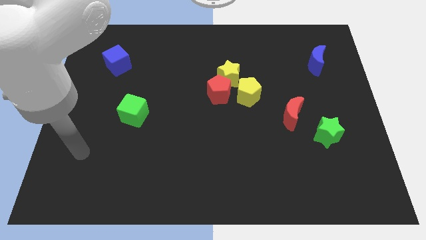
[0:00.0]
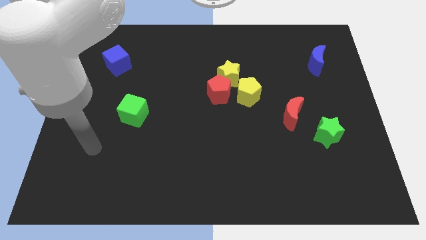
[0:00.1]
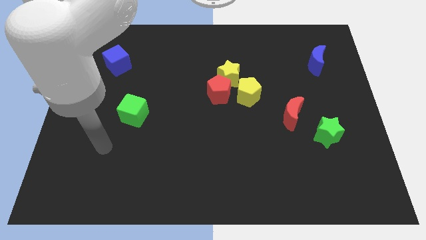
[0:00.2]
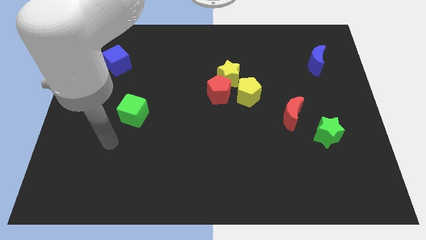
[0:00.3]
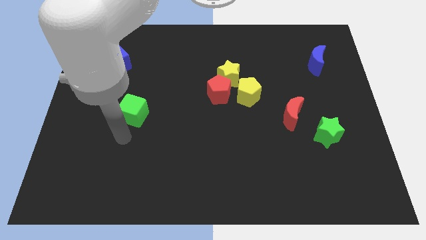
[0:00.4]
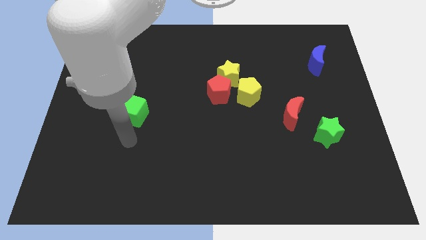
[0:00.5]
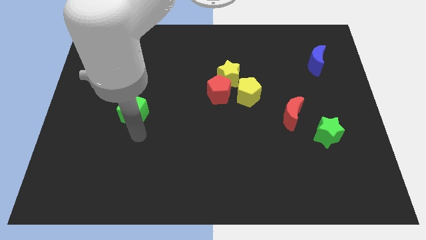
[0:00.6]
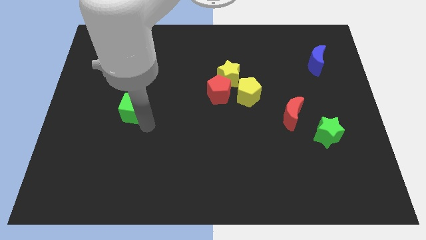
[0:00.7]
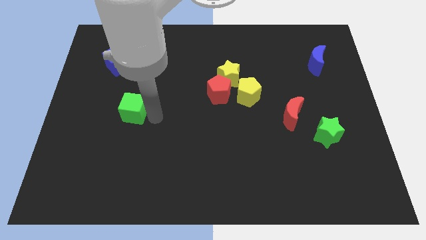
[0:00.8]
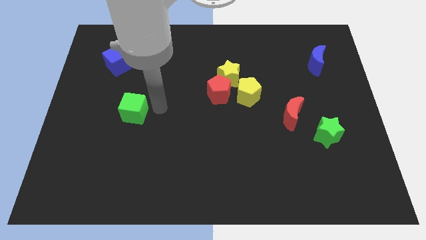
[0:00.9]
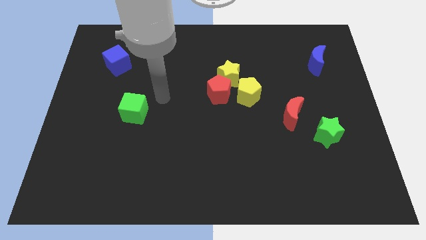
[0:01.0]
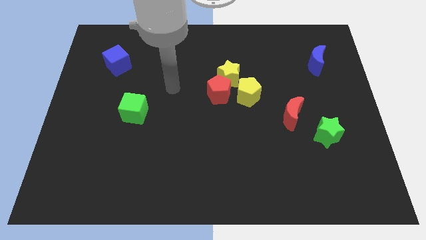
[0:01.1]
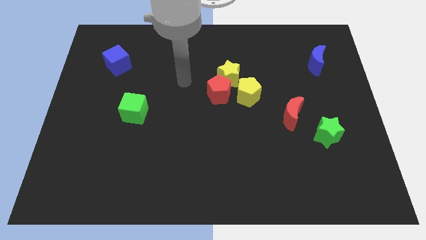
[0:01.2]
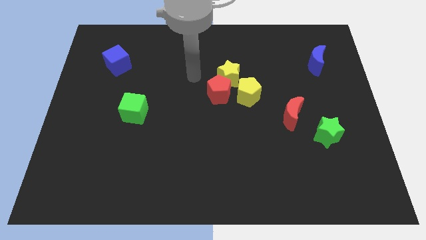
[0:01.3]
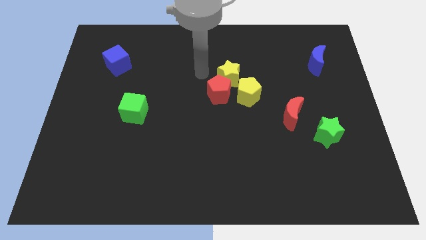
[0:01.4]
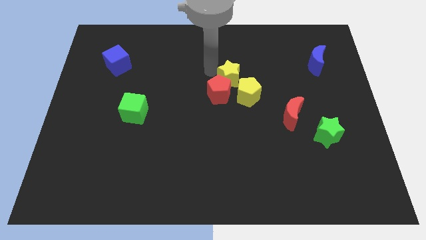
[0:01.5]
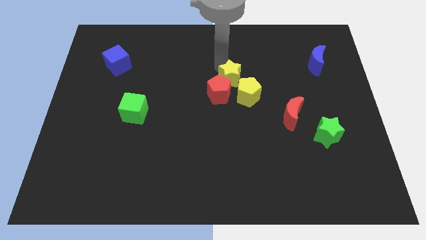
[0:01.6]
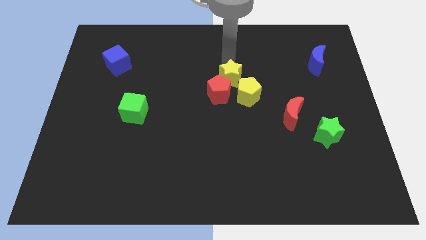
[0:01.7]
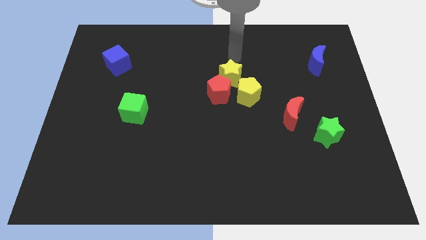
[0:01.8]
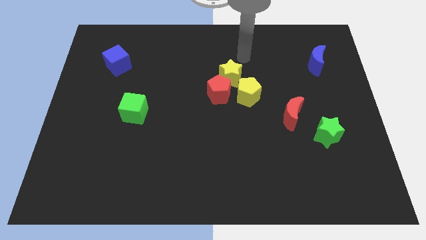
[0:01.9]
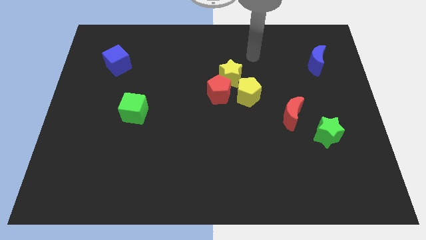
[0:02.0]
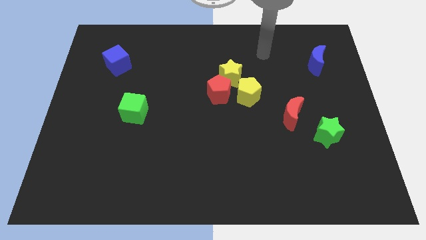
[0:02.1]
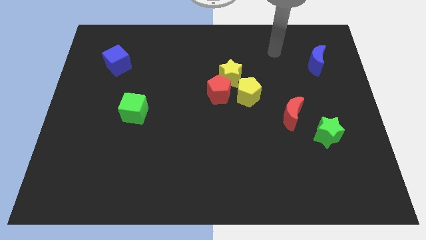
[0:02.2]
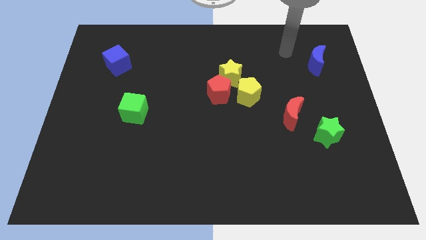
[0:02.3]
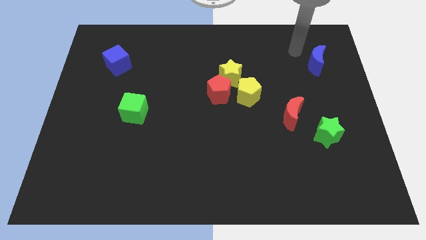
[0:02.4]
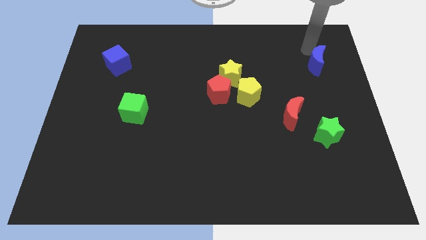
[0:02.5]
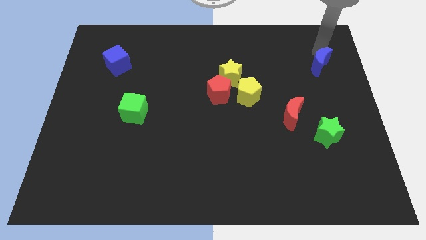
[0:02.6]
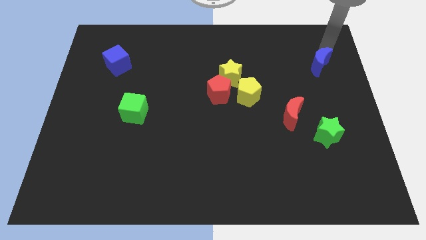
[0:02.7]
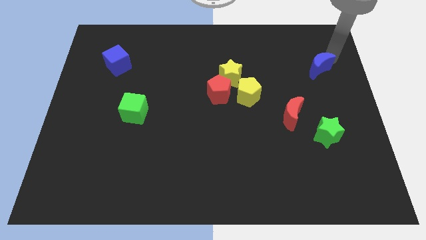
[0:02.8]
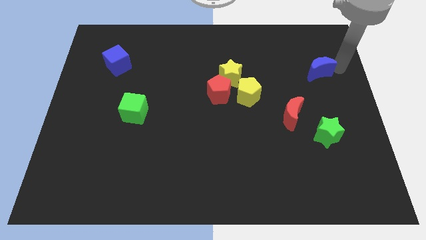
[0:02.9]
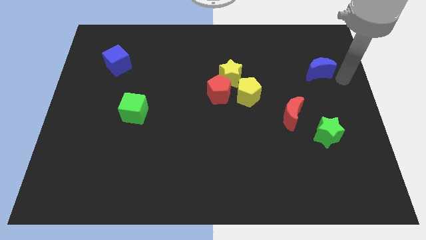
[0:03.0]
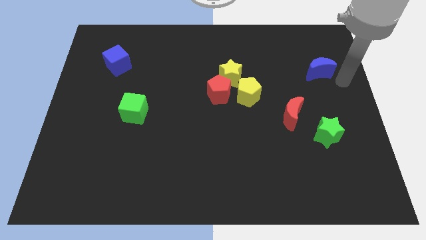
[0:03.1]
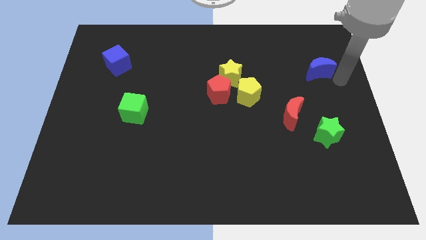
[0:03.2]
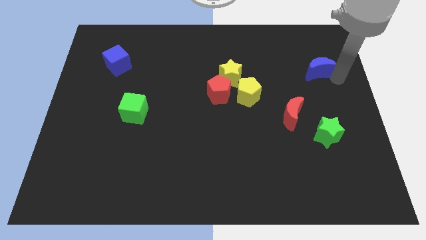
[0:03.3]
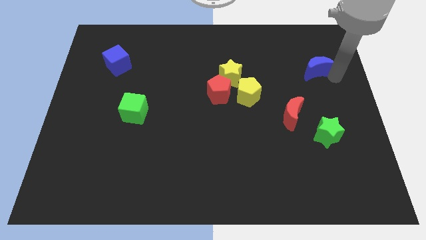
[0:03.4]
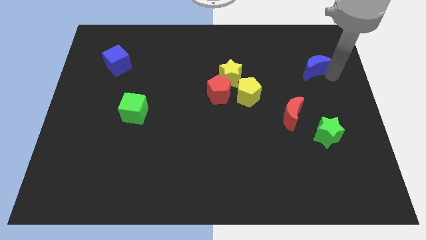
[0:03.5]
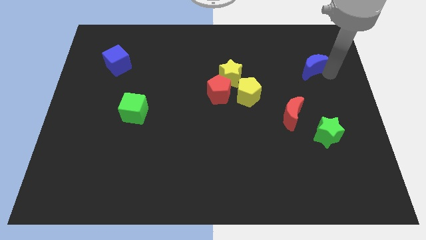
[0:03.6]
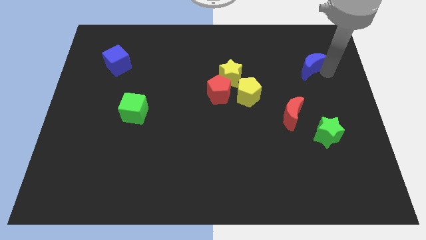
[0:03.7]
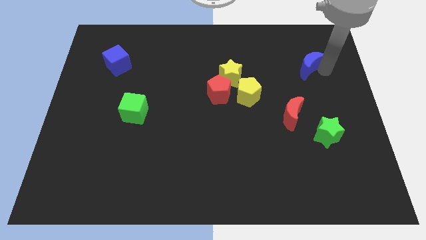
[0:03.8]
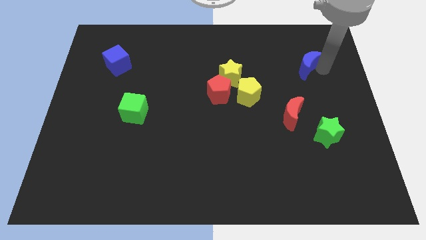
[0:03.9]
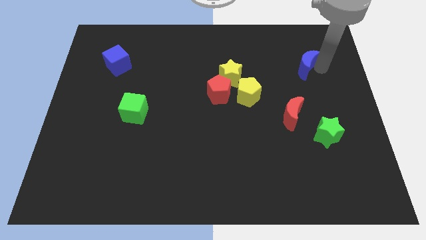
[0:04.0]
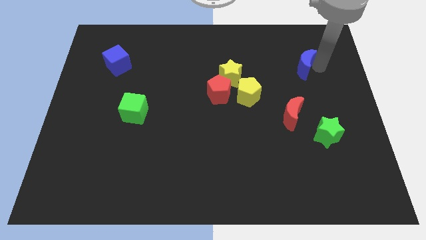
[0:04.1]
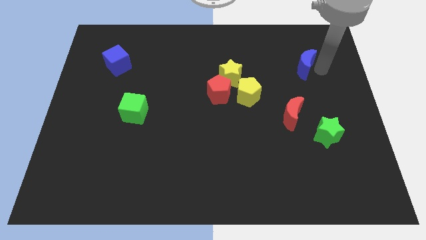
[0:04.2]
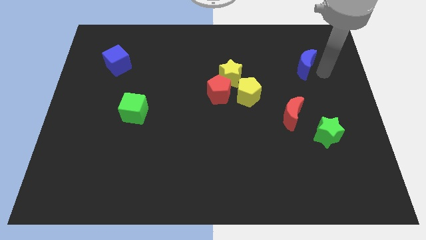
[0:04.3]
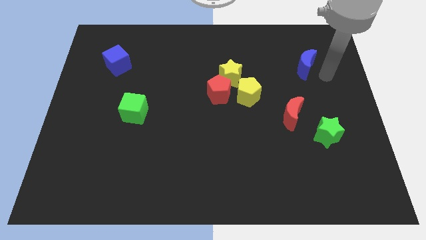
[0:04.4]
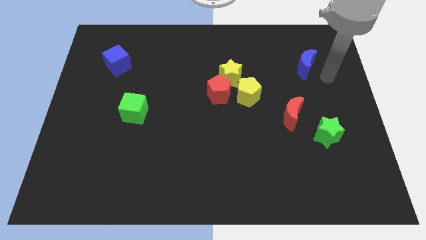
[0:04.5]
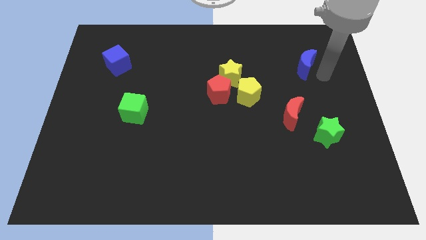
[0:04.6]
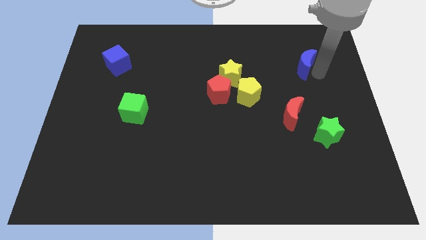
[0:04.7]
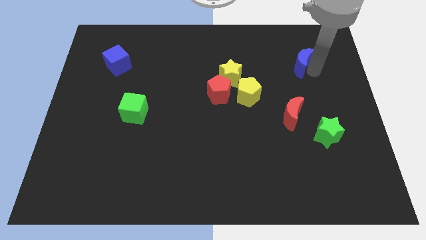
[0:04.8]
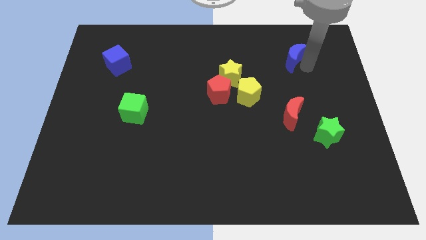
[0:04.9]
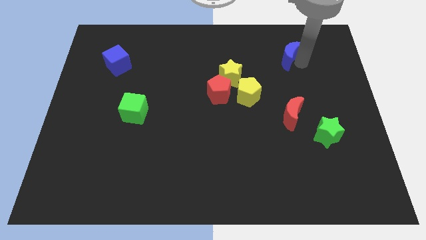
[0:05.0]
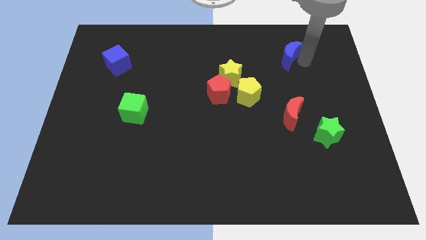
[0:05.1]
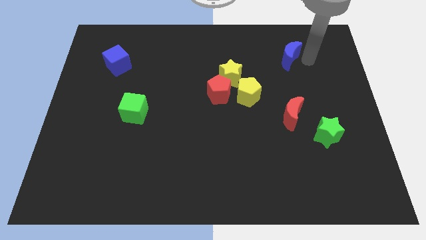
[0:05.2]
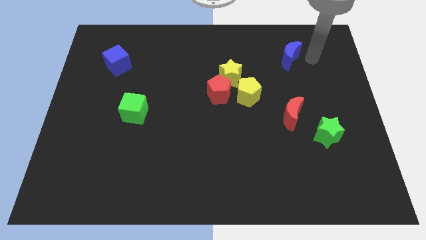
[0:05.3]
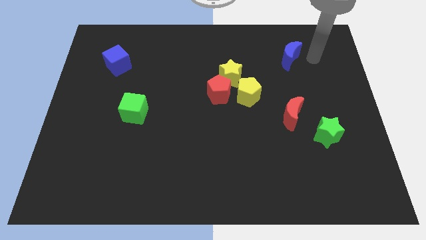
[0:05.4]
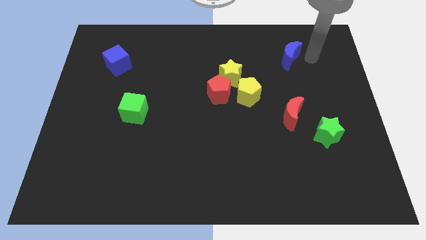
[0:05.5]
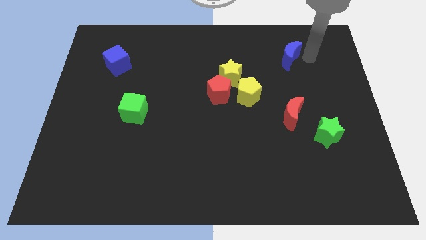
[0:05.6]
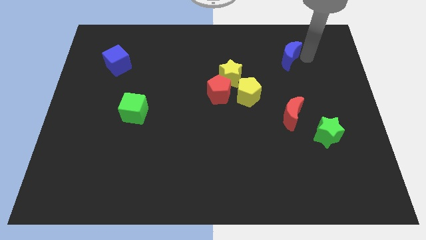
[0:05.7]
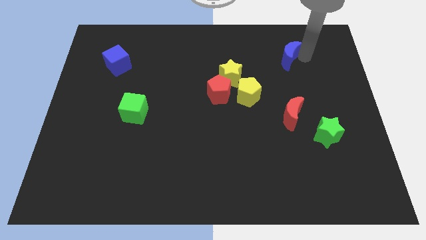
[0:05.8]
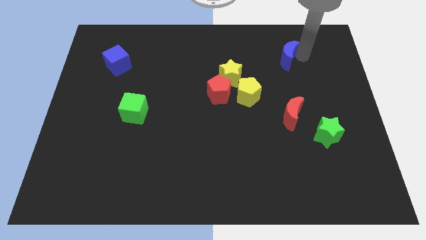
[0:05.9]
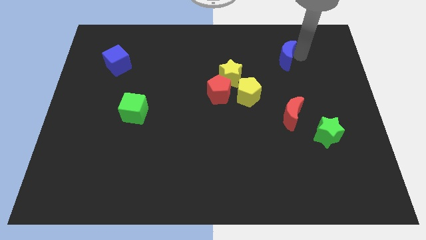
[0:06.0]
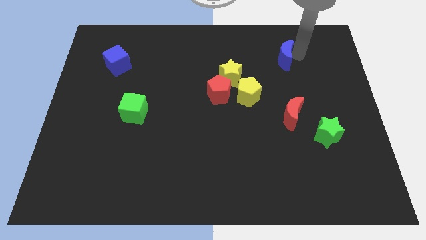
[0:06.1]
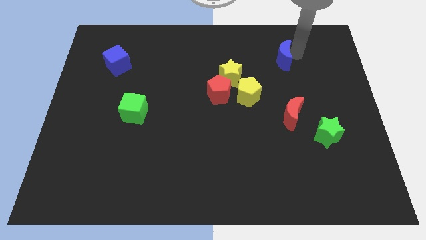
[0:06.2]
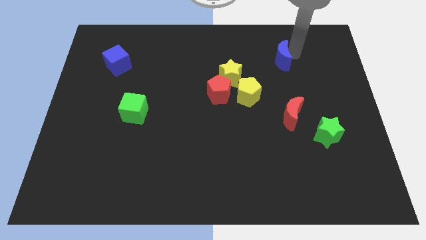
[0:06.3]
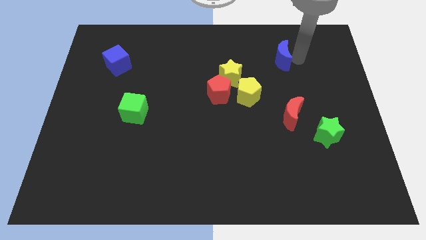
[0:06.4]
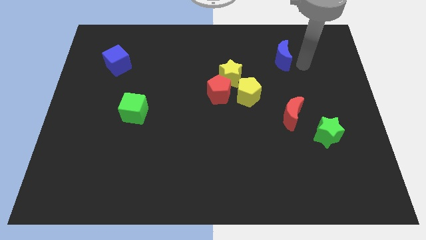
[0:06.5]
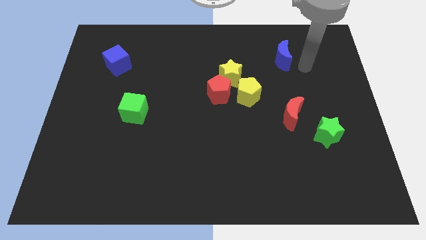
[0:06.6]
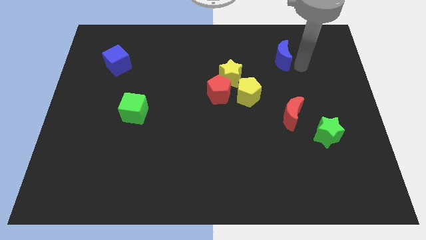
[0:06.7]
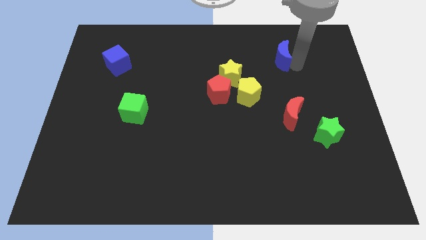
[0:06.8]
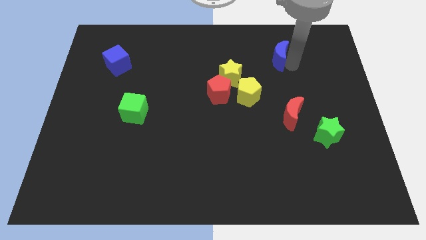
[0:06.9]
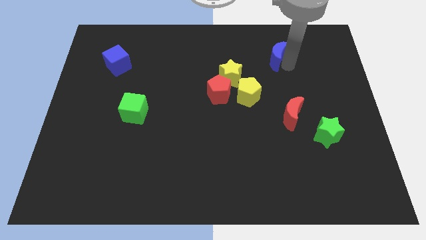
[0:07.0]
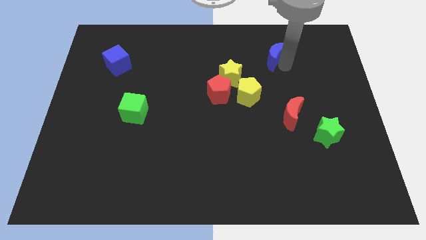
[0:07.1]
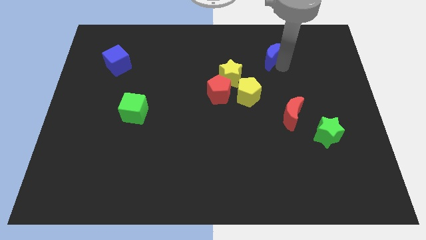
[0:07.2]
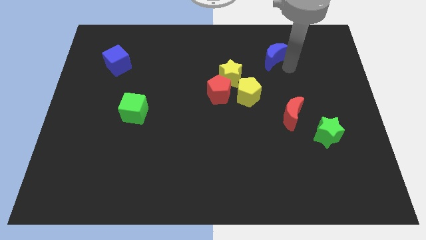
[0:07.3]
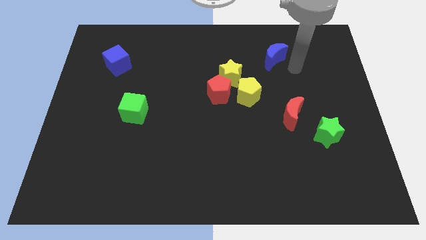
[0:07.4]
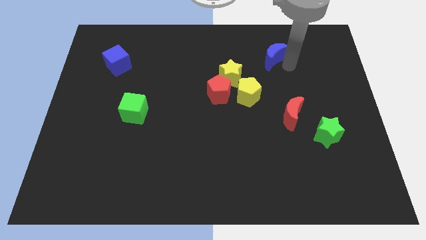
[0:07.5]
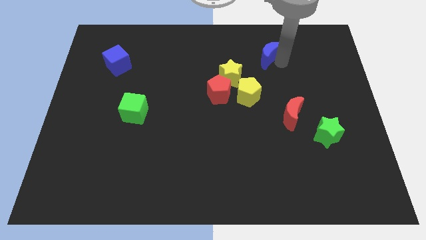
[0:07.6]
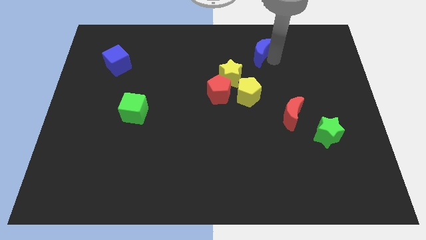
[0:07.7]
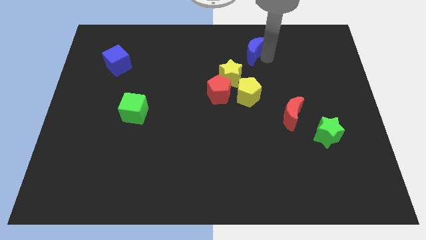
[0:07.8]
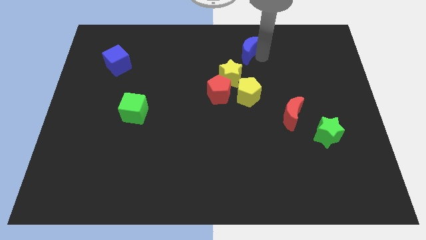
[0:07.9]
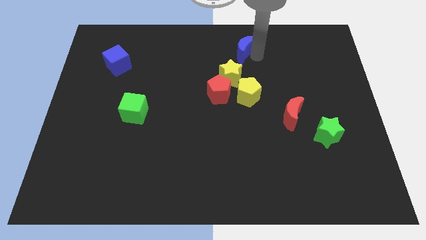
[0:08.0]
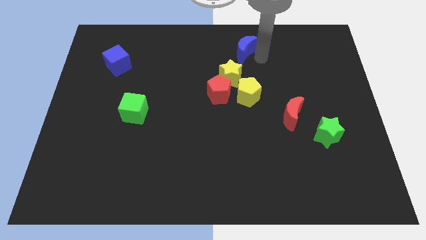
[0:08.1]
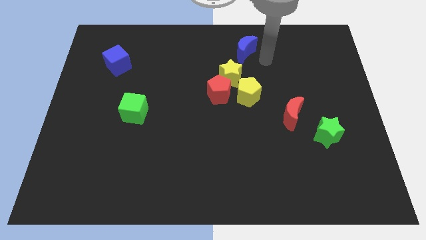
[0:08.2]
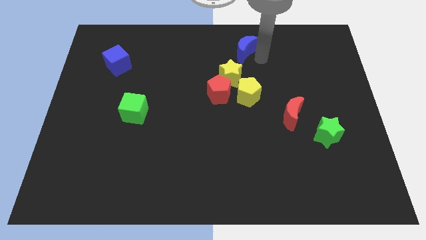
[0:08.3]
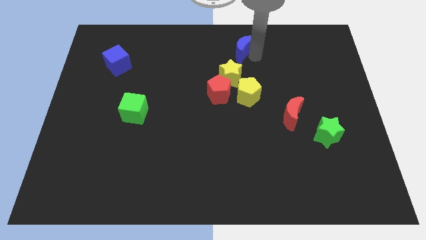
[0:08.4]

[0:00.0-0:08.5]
push the blue moon to the top side
